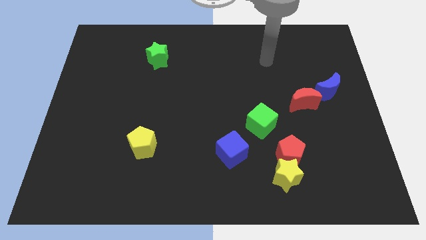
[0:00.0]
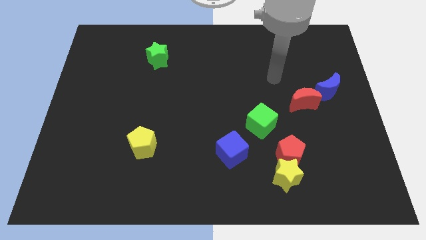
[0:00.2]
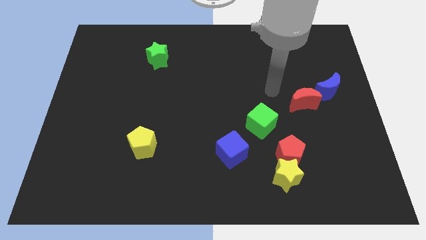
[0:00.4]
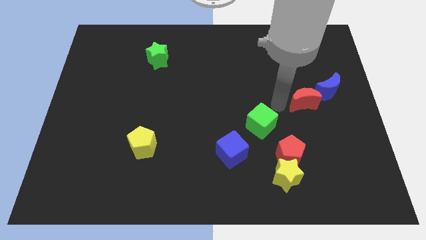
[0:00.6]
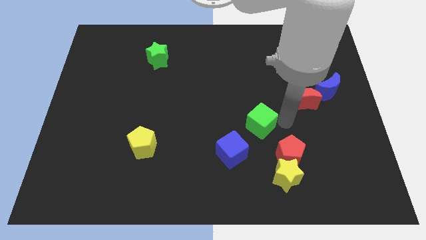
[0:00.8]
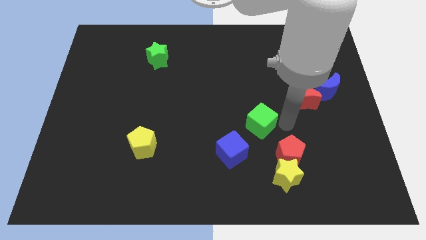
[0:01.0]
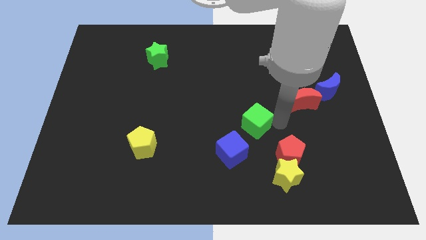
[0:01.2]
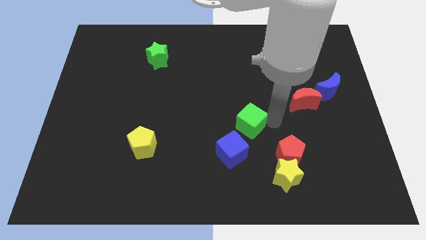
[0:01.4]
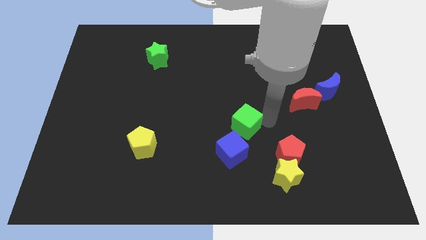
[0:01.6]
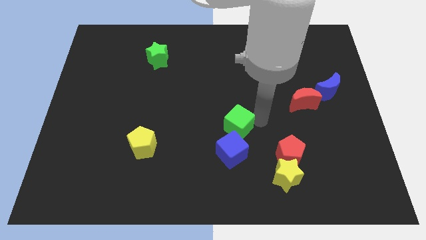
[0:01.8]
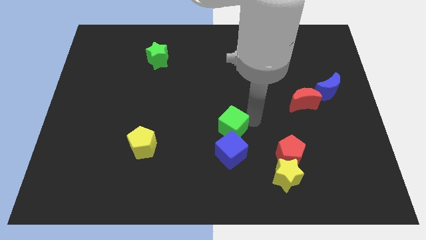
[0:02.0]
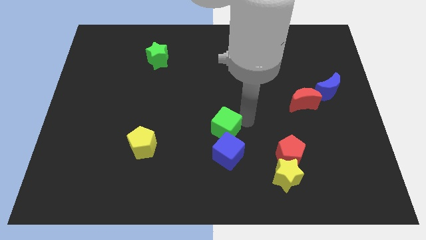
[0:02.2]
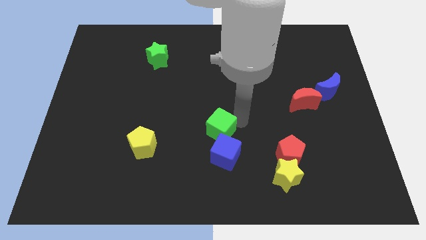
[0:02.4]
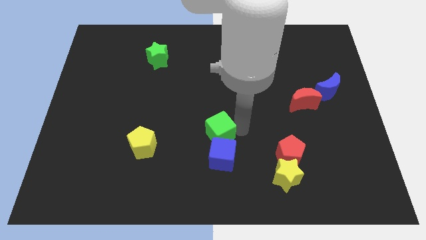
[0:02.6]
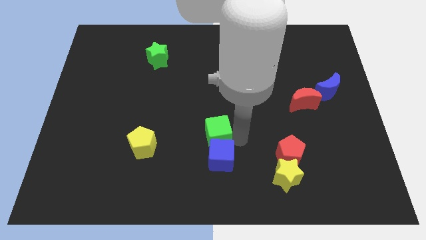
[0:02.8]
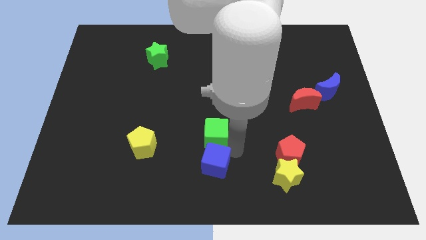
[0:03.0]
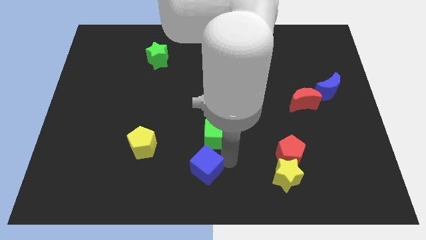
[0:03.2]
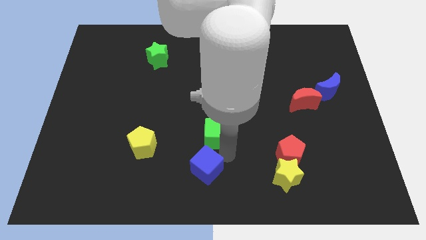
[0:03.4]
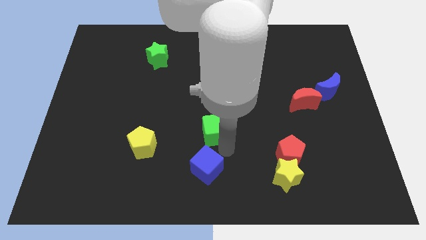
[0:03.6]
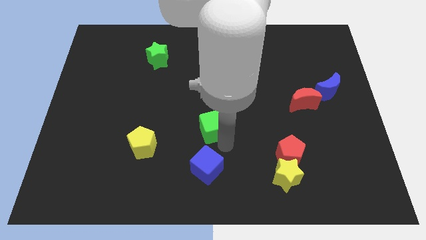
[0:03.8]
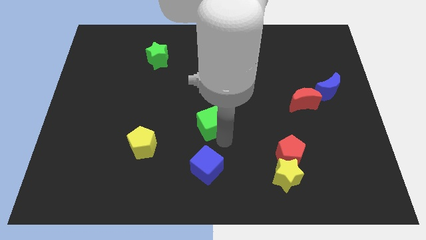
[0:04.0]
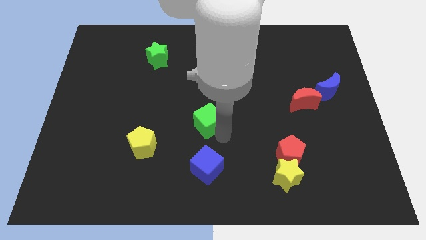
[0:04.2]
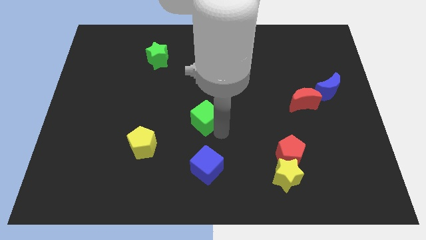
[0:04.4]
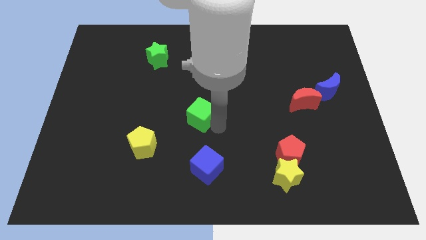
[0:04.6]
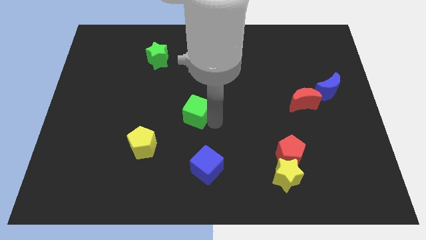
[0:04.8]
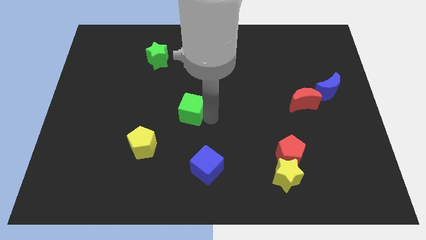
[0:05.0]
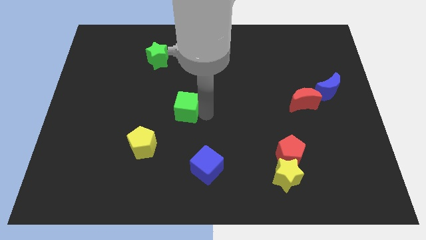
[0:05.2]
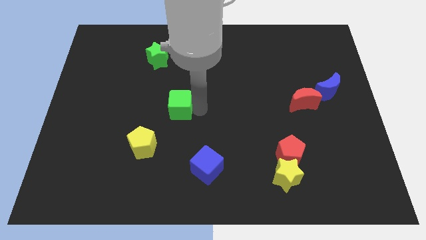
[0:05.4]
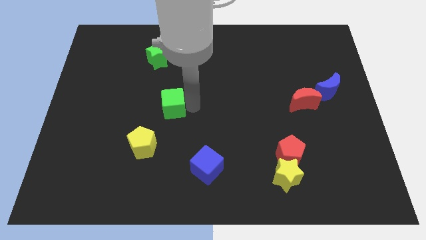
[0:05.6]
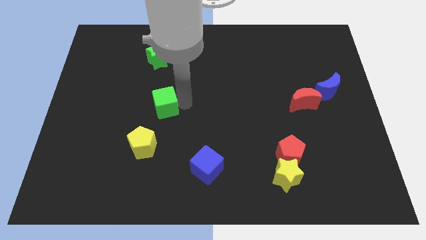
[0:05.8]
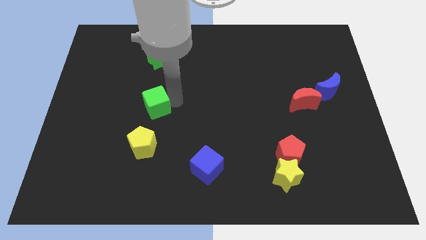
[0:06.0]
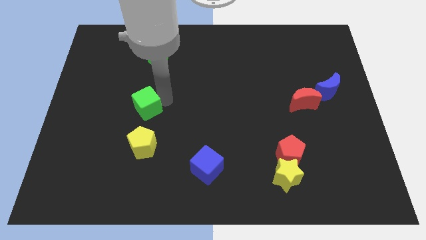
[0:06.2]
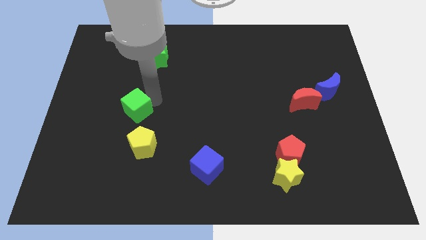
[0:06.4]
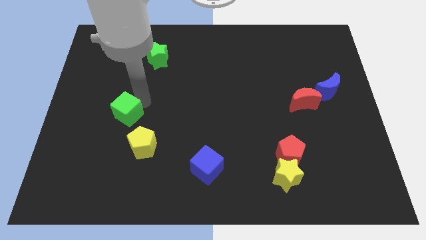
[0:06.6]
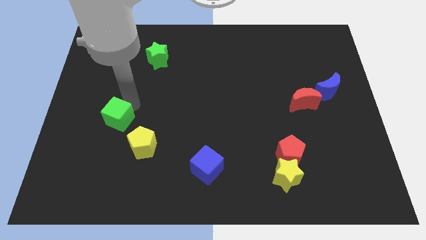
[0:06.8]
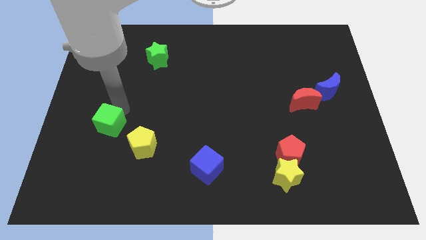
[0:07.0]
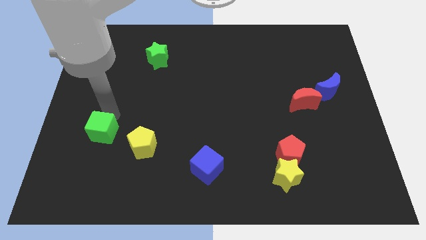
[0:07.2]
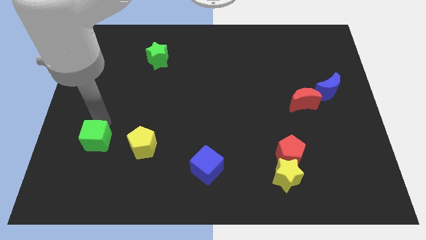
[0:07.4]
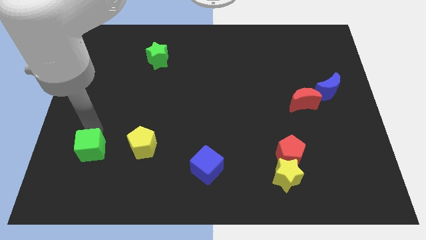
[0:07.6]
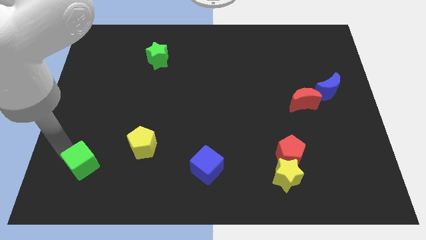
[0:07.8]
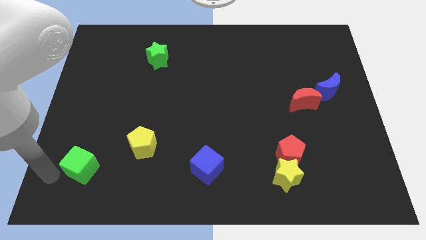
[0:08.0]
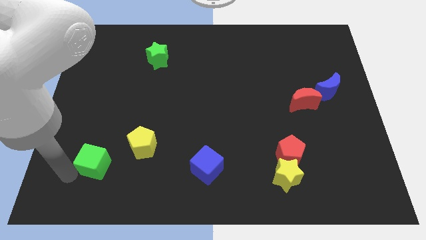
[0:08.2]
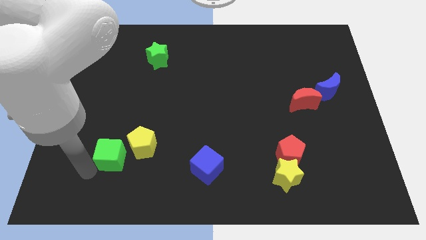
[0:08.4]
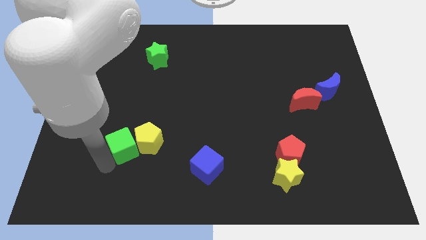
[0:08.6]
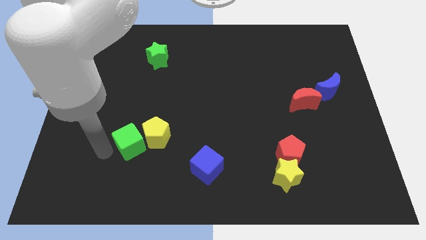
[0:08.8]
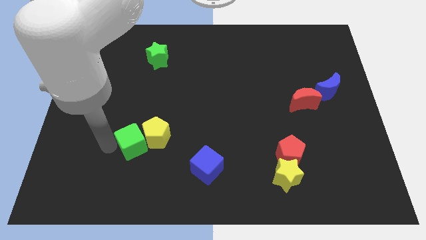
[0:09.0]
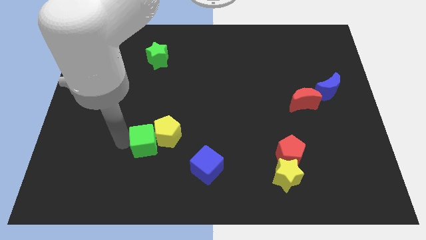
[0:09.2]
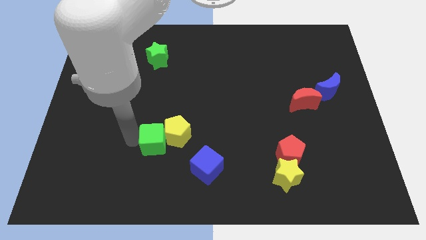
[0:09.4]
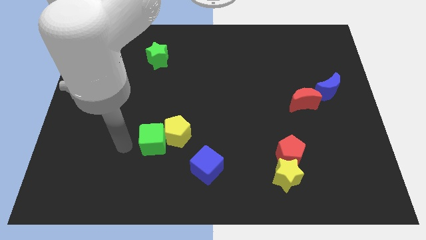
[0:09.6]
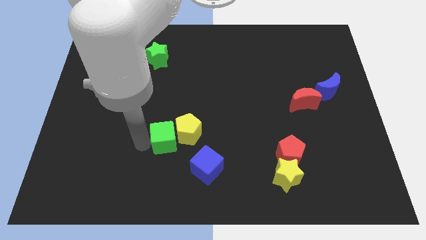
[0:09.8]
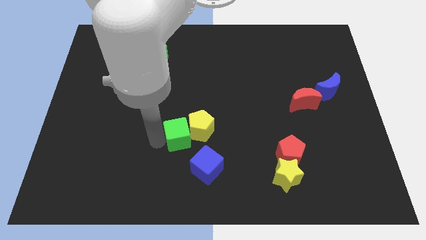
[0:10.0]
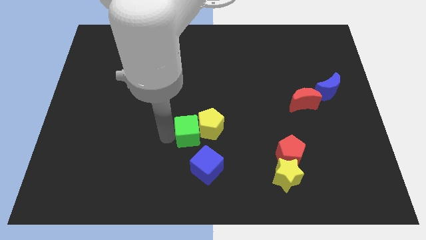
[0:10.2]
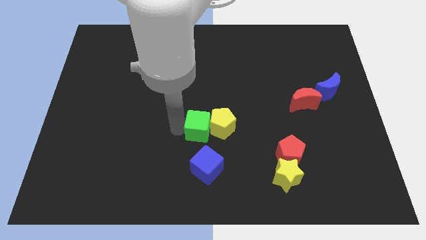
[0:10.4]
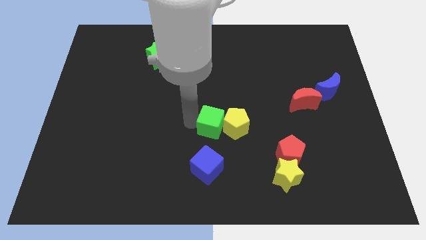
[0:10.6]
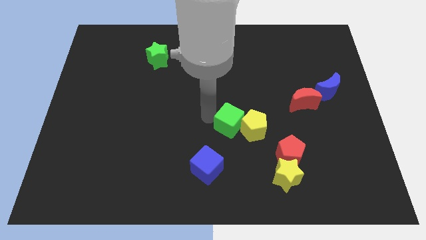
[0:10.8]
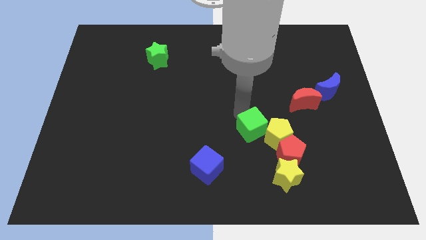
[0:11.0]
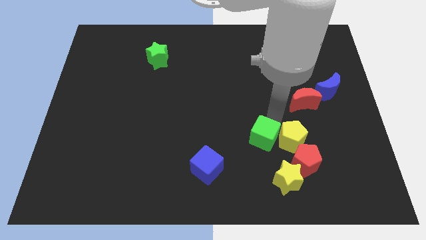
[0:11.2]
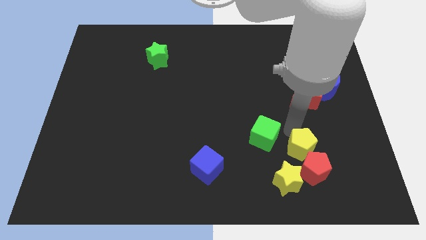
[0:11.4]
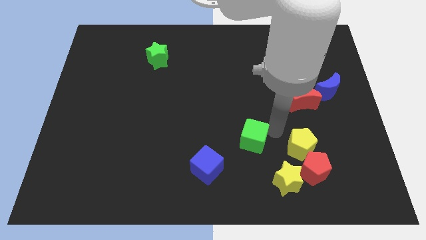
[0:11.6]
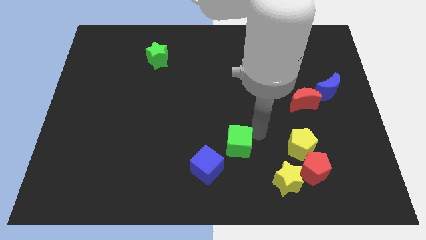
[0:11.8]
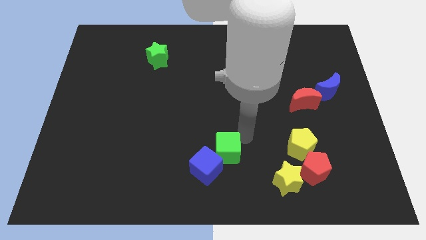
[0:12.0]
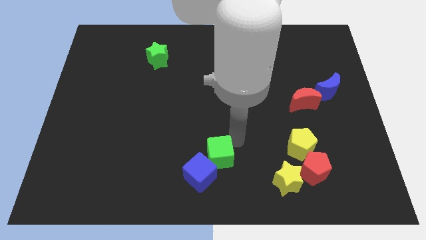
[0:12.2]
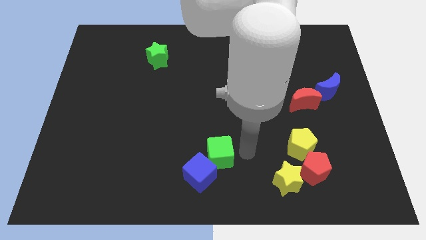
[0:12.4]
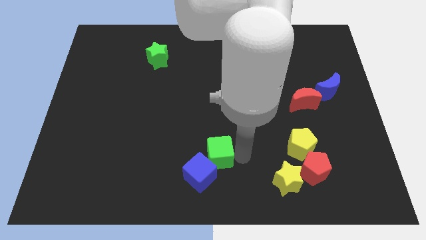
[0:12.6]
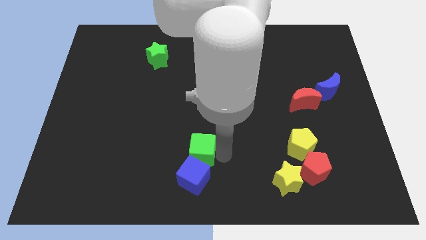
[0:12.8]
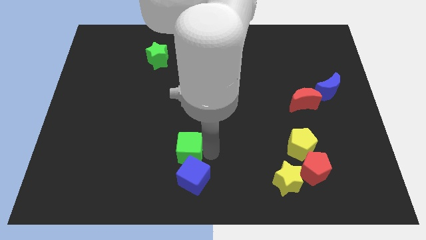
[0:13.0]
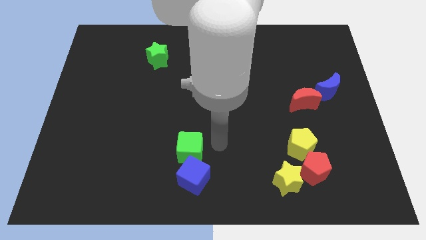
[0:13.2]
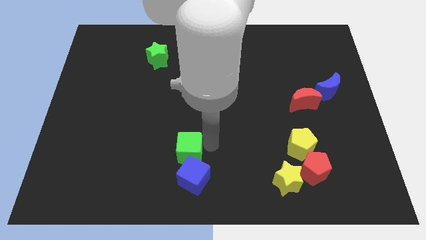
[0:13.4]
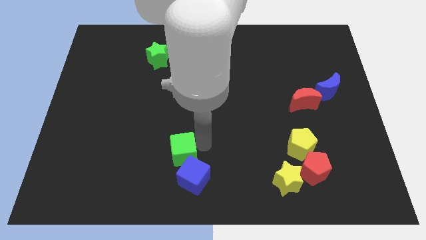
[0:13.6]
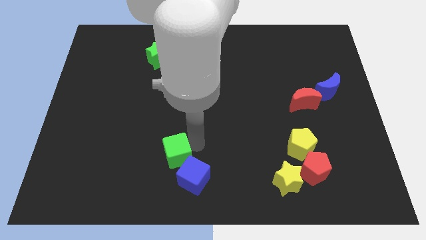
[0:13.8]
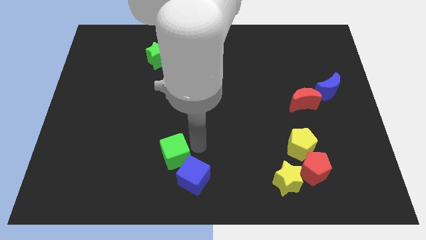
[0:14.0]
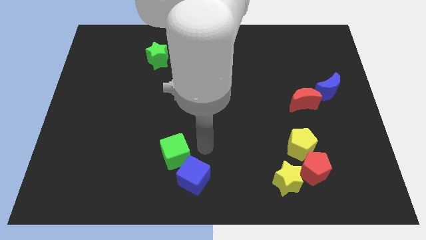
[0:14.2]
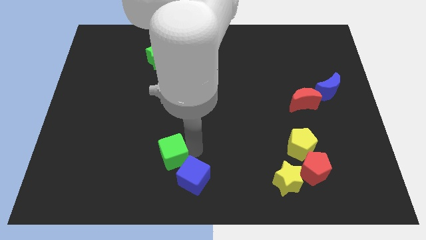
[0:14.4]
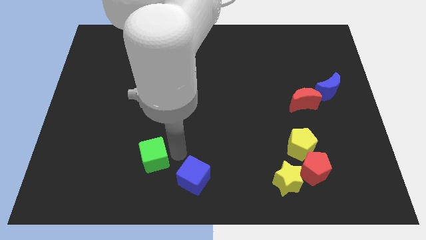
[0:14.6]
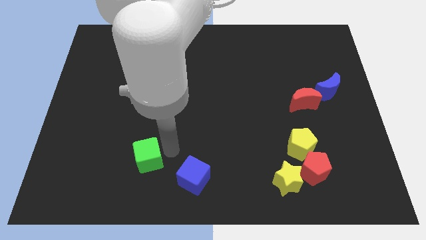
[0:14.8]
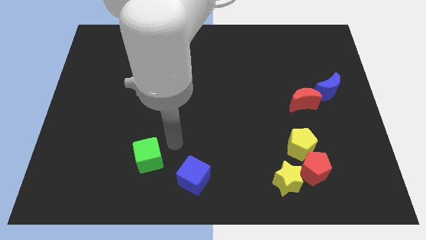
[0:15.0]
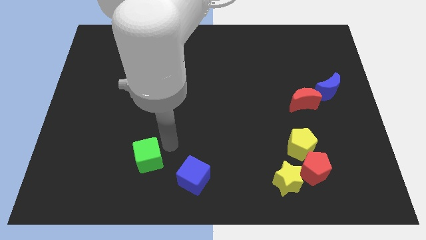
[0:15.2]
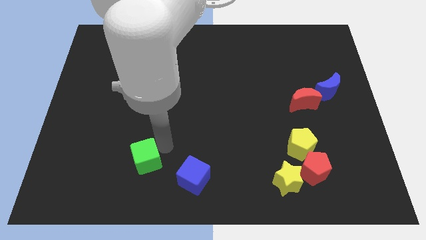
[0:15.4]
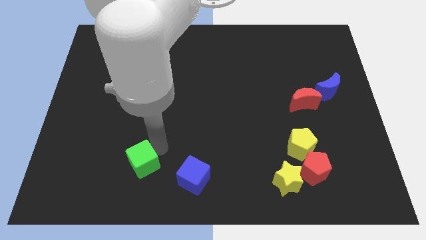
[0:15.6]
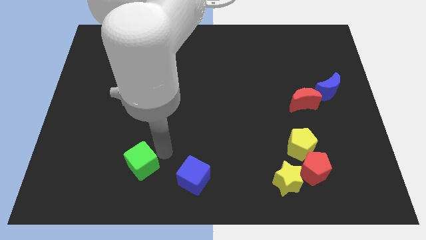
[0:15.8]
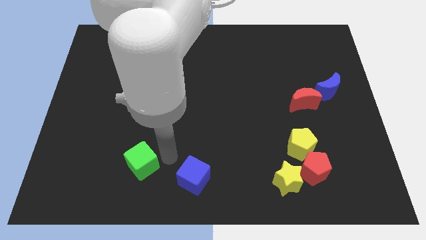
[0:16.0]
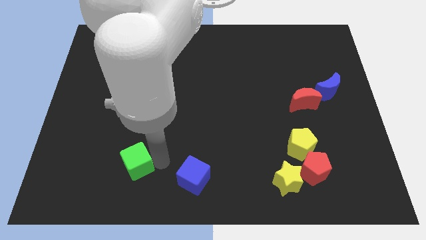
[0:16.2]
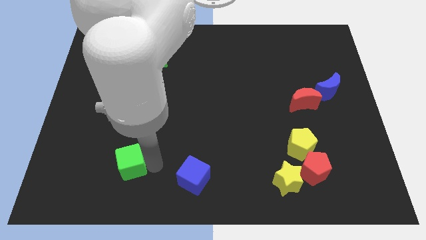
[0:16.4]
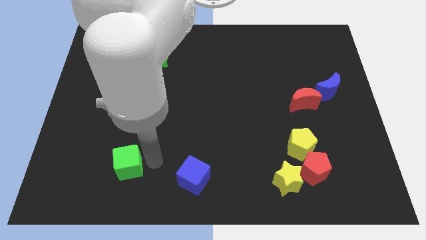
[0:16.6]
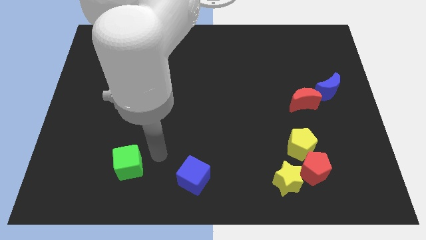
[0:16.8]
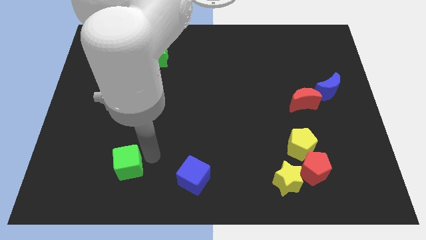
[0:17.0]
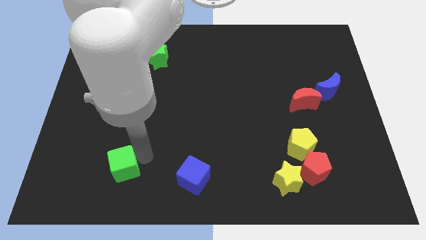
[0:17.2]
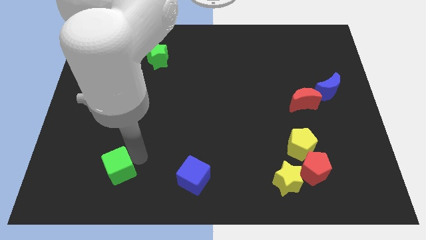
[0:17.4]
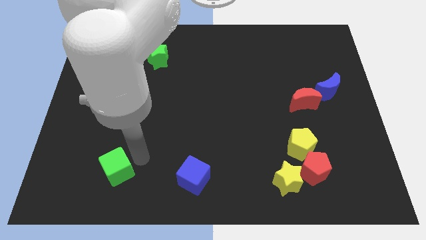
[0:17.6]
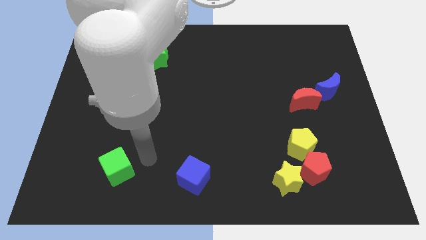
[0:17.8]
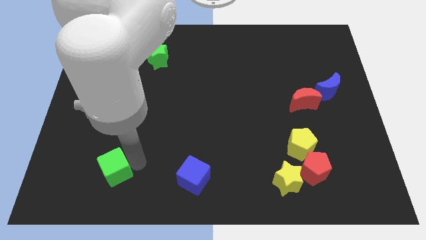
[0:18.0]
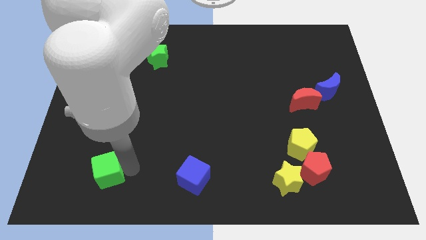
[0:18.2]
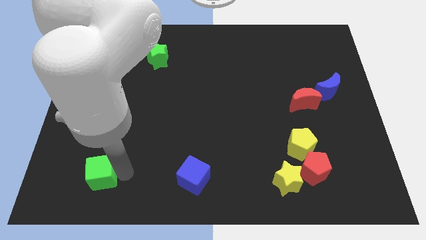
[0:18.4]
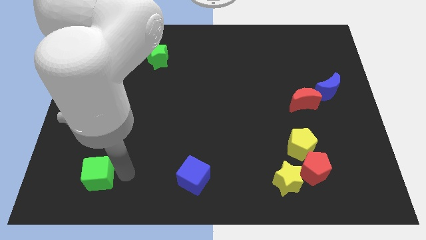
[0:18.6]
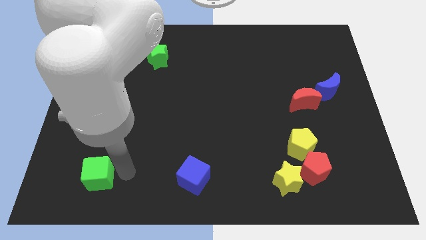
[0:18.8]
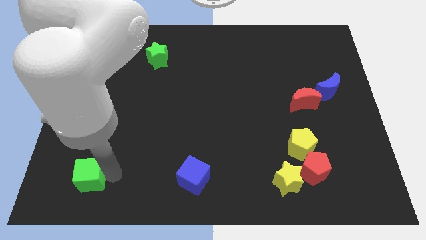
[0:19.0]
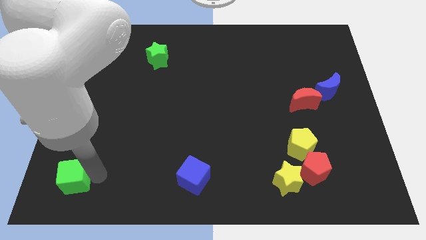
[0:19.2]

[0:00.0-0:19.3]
push the green cube to the lower left corner
